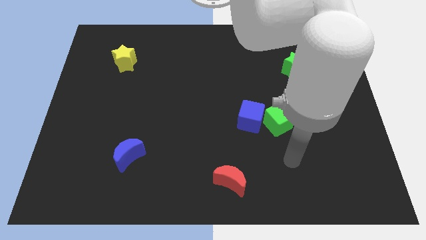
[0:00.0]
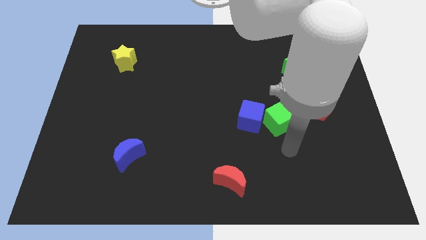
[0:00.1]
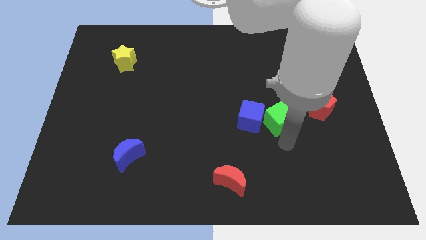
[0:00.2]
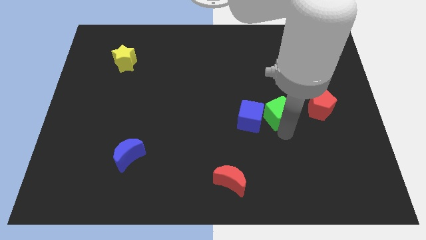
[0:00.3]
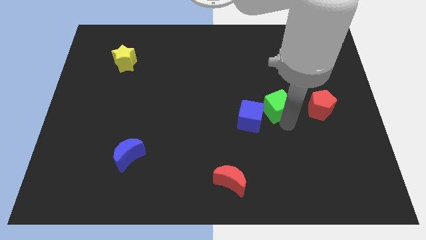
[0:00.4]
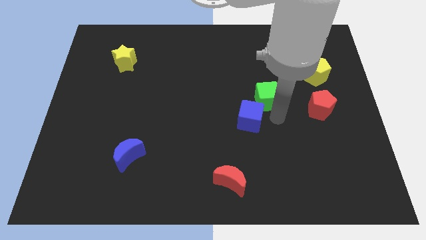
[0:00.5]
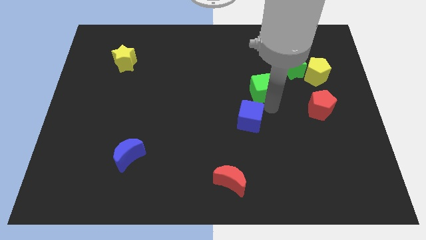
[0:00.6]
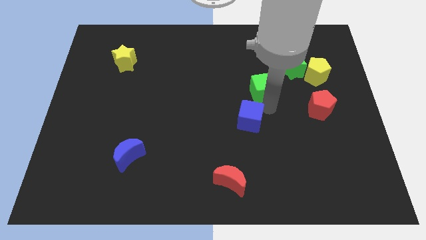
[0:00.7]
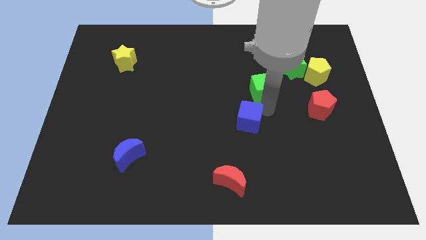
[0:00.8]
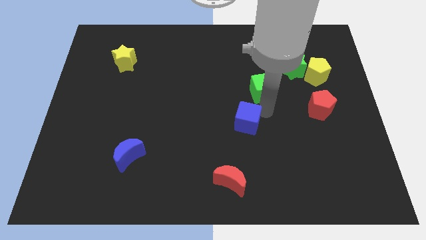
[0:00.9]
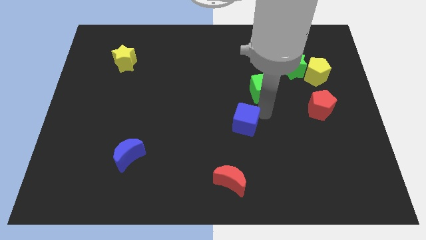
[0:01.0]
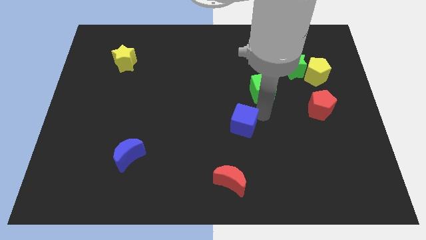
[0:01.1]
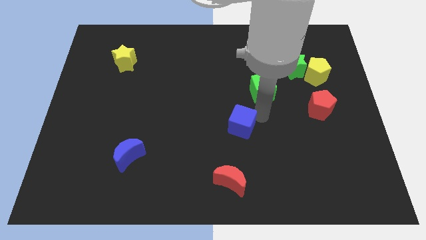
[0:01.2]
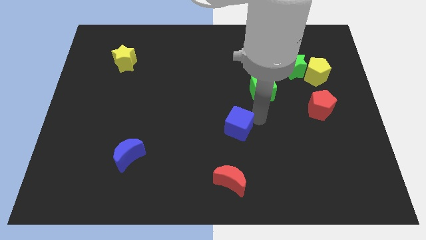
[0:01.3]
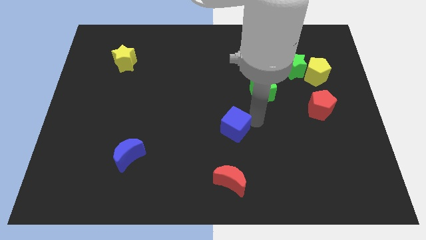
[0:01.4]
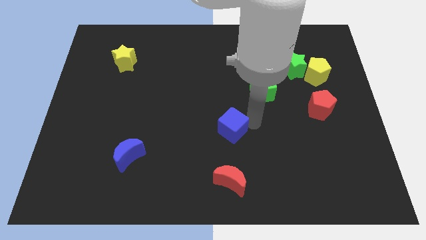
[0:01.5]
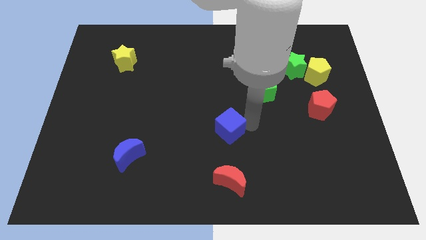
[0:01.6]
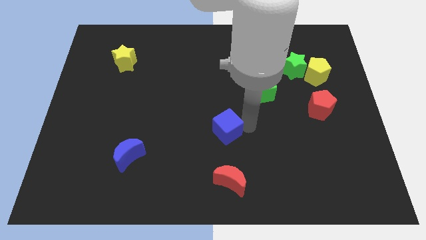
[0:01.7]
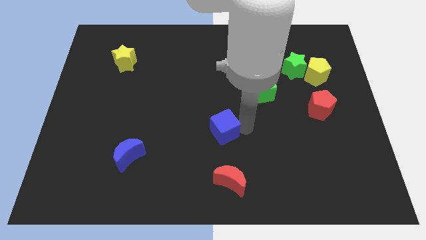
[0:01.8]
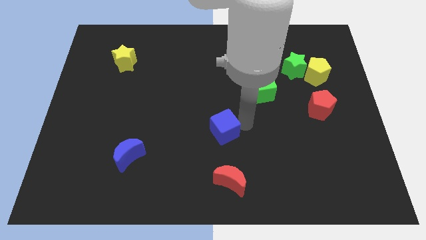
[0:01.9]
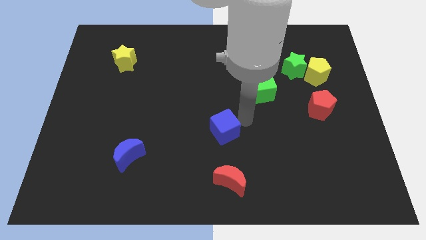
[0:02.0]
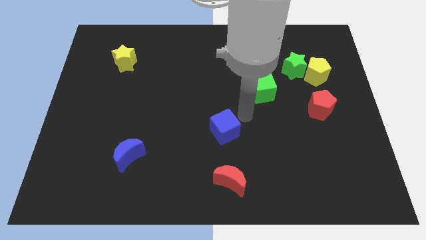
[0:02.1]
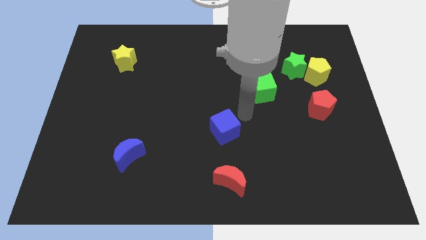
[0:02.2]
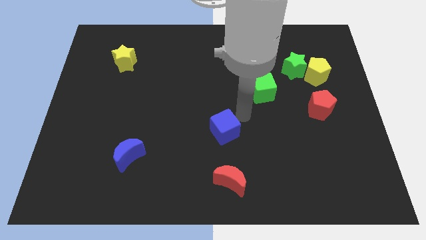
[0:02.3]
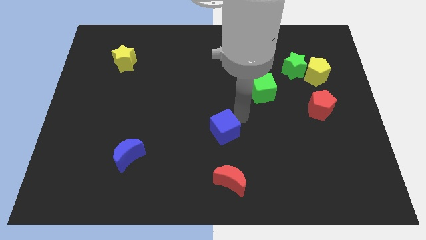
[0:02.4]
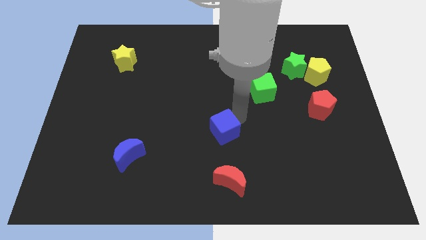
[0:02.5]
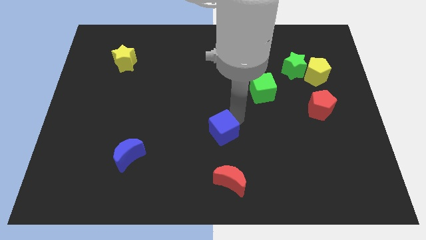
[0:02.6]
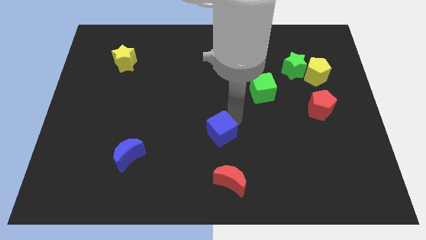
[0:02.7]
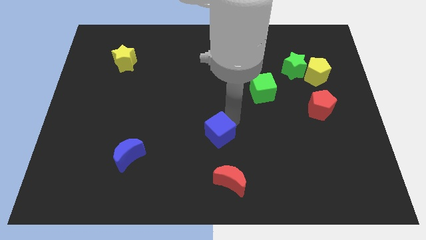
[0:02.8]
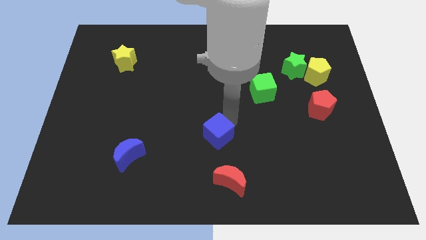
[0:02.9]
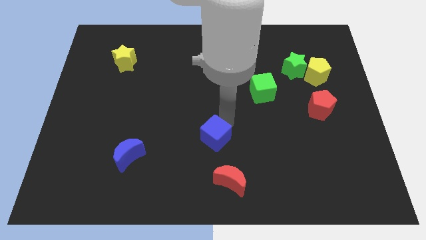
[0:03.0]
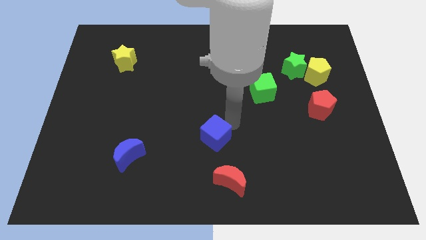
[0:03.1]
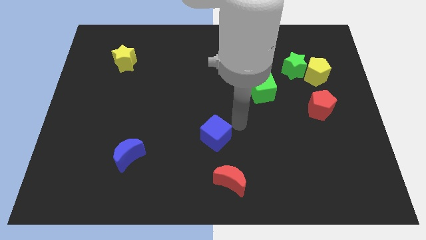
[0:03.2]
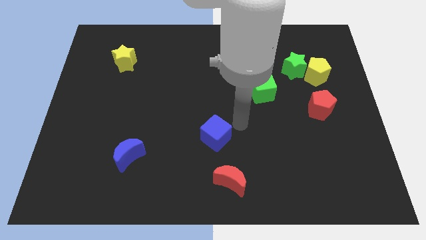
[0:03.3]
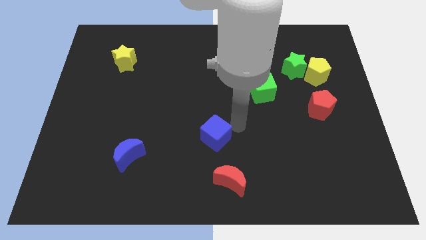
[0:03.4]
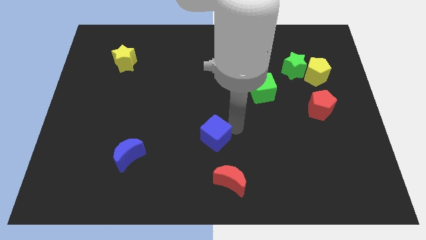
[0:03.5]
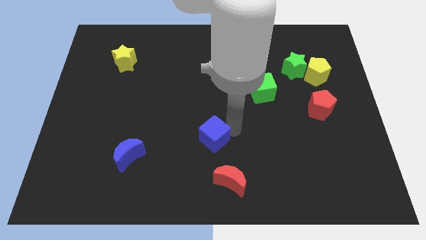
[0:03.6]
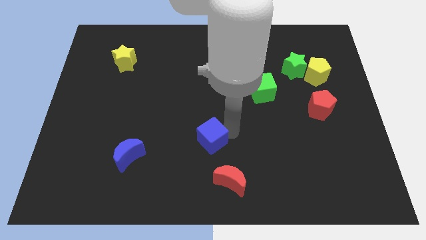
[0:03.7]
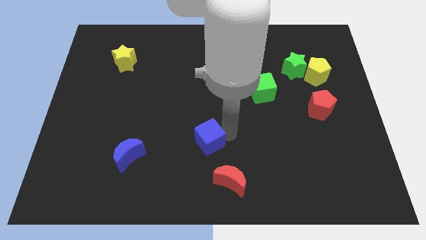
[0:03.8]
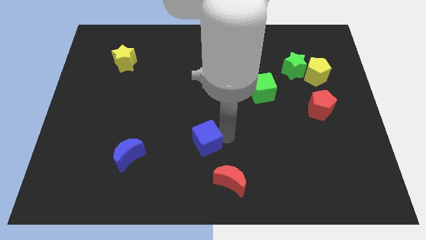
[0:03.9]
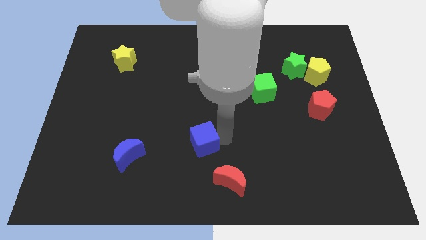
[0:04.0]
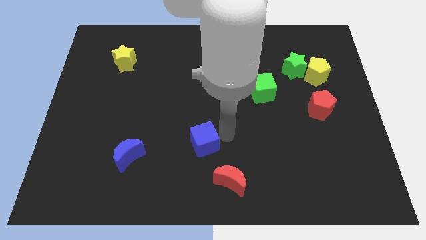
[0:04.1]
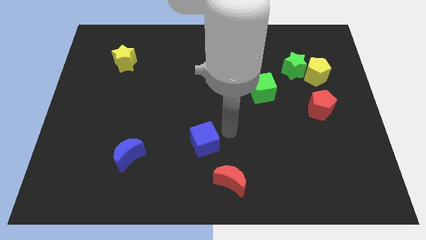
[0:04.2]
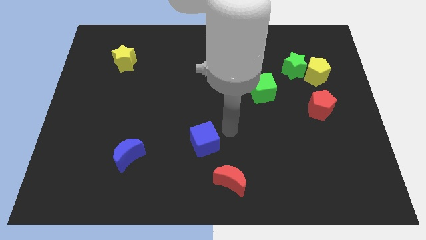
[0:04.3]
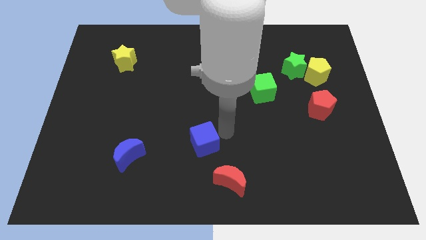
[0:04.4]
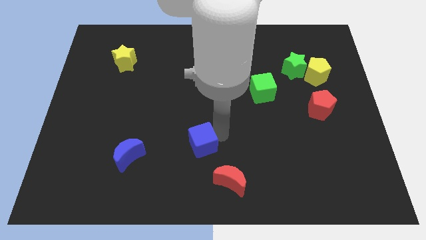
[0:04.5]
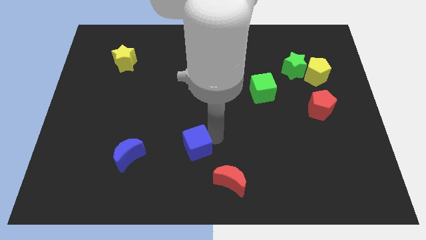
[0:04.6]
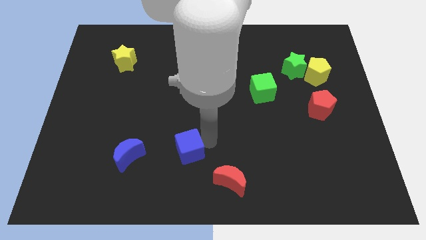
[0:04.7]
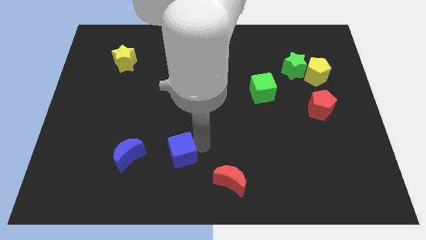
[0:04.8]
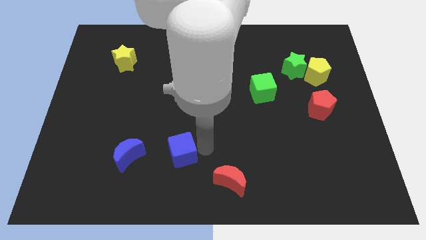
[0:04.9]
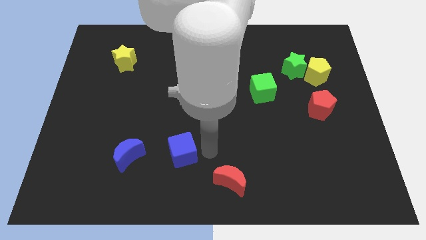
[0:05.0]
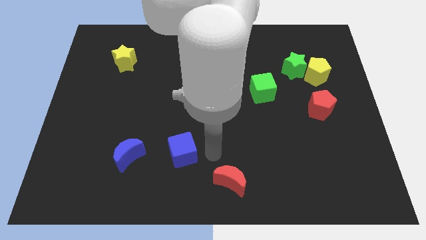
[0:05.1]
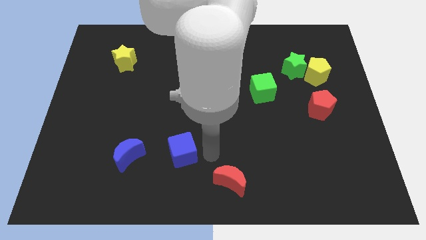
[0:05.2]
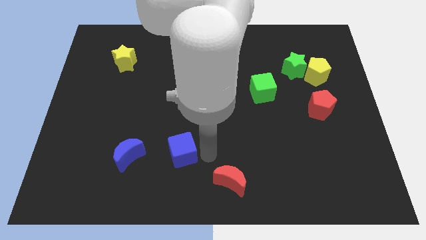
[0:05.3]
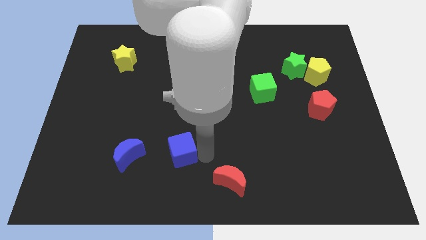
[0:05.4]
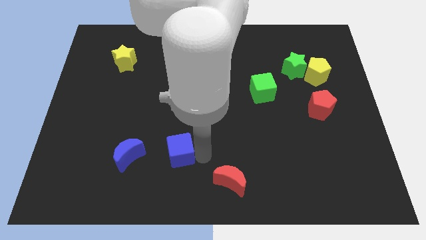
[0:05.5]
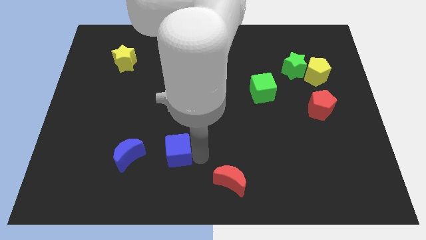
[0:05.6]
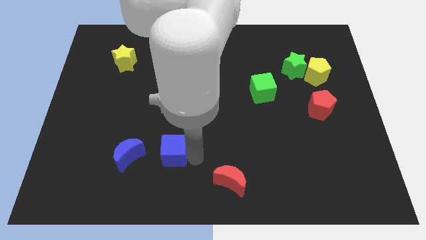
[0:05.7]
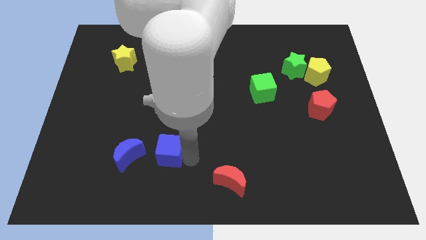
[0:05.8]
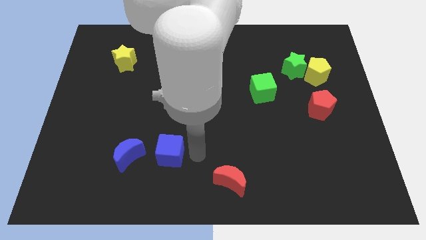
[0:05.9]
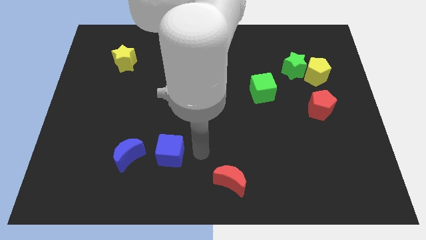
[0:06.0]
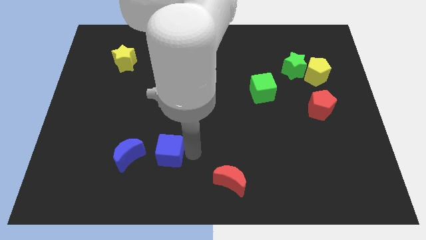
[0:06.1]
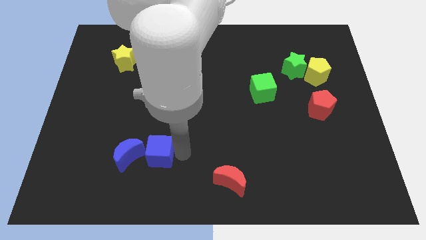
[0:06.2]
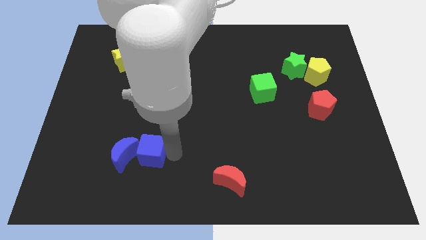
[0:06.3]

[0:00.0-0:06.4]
push the blue cube towards the blue moon
